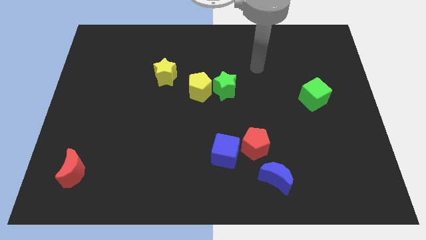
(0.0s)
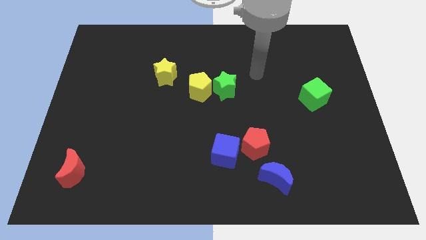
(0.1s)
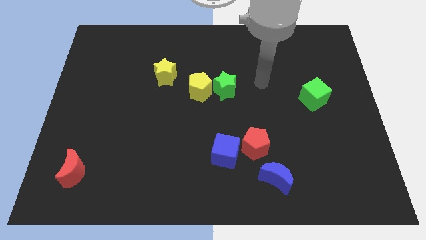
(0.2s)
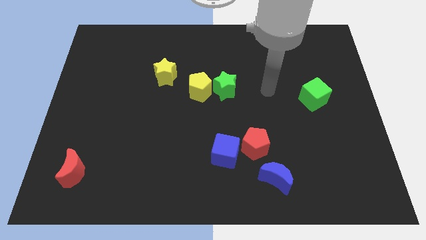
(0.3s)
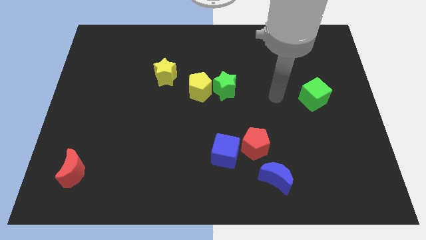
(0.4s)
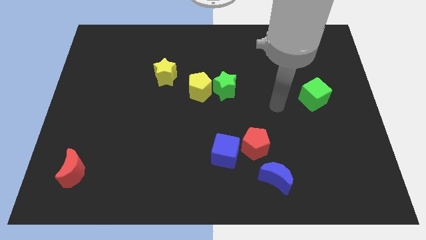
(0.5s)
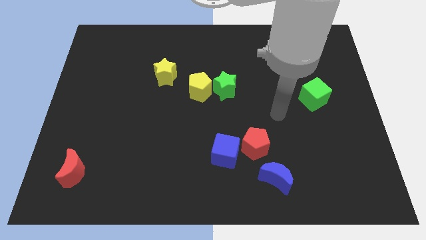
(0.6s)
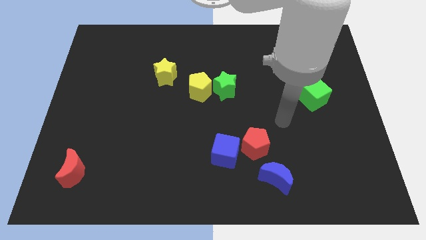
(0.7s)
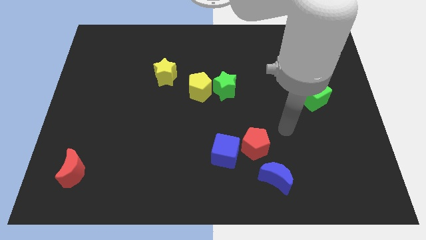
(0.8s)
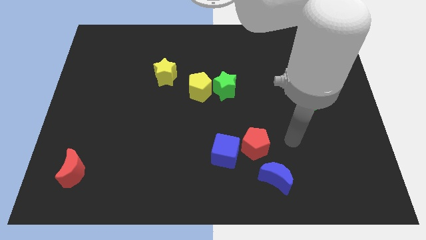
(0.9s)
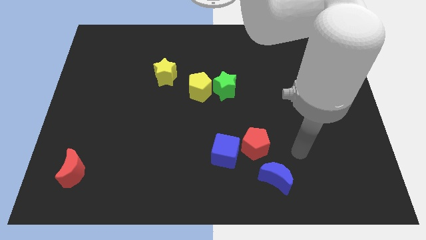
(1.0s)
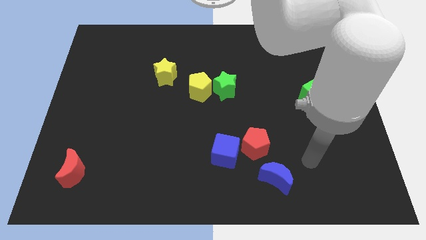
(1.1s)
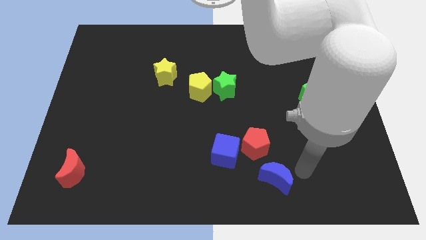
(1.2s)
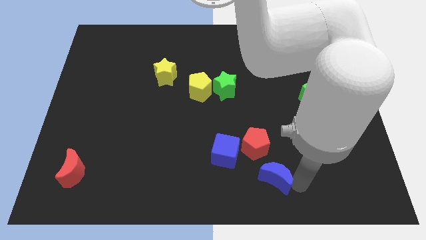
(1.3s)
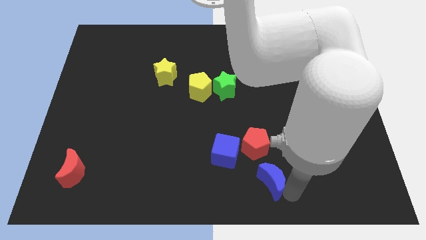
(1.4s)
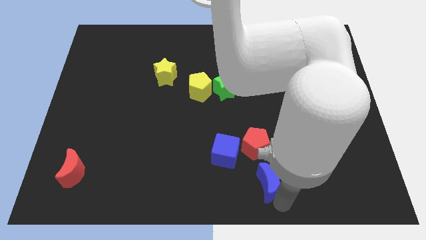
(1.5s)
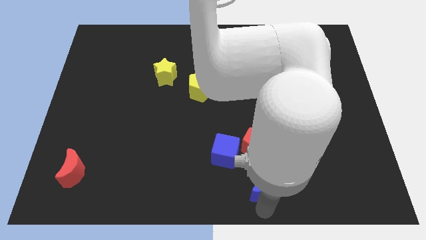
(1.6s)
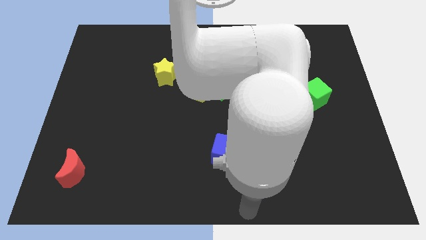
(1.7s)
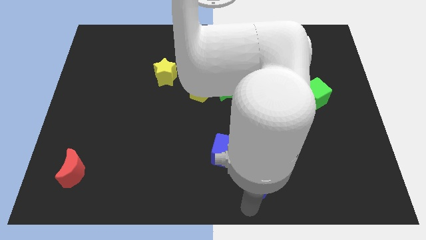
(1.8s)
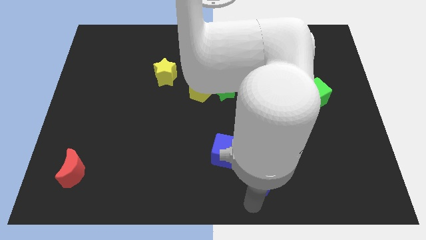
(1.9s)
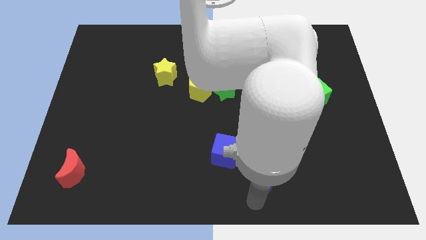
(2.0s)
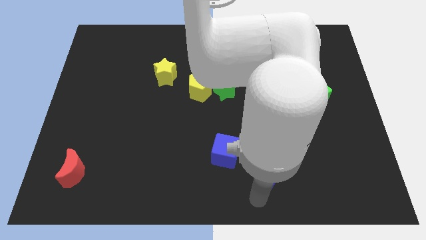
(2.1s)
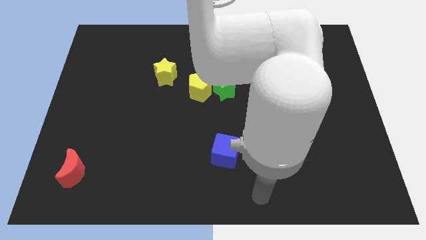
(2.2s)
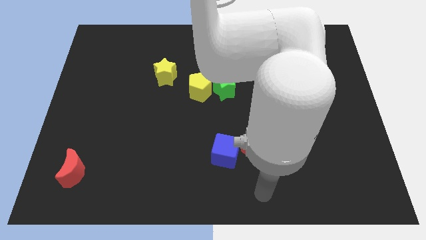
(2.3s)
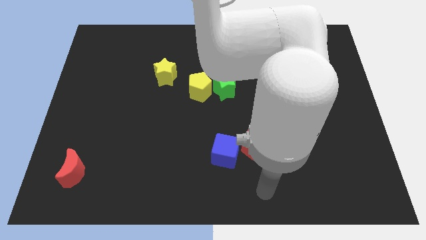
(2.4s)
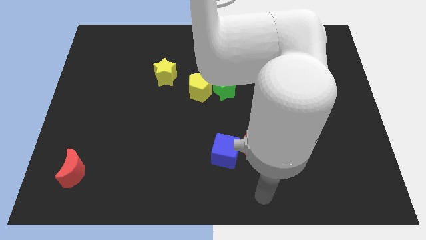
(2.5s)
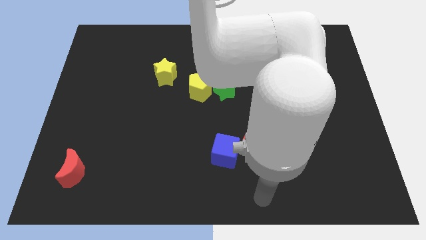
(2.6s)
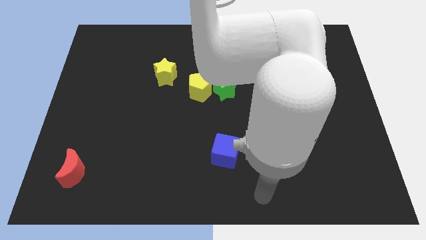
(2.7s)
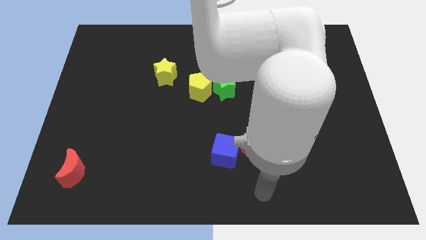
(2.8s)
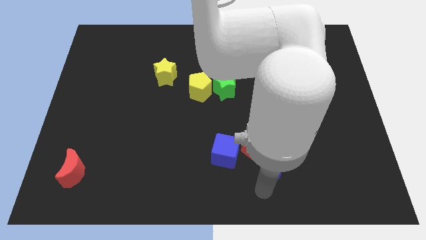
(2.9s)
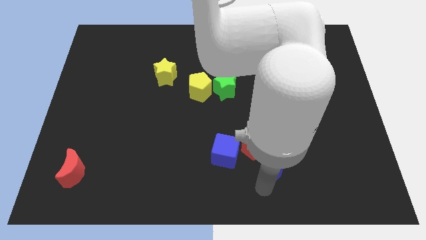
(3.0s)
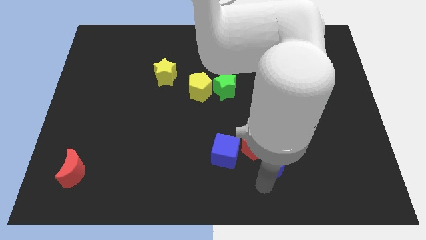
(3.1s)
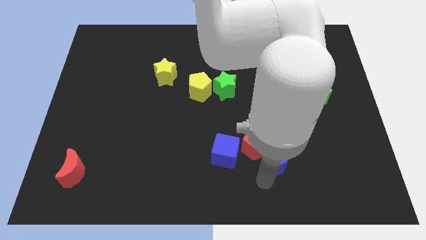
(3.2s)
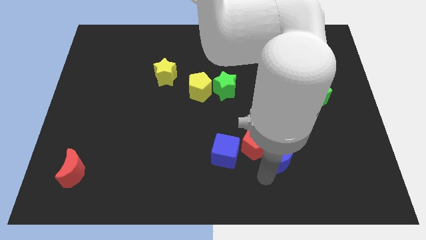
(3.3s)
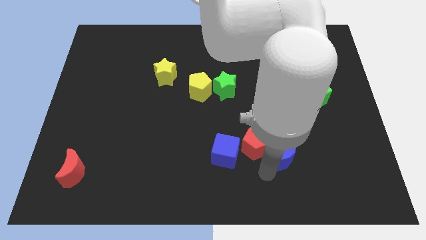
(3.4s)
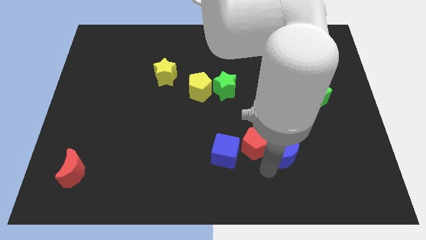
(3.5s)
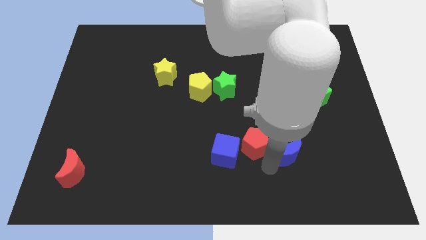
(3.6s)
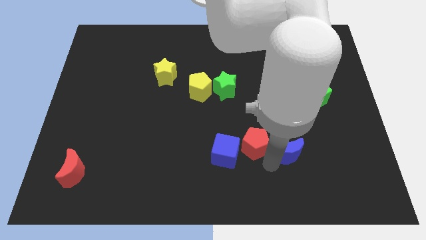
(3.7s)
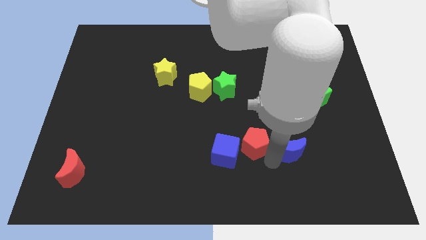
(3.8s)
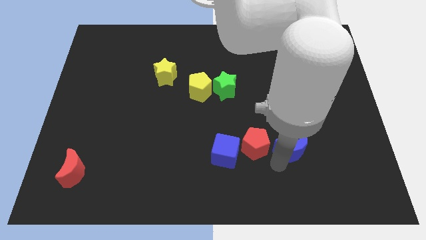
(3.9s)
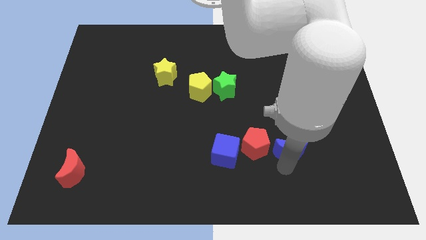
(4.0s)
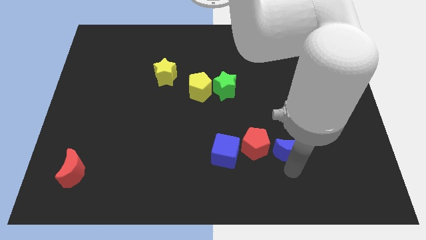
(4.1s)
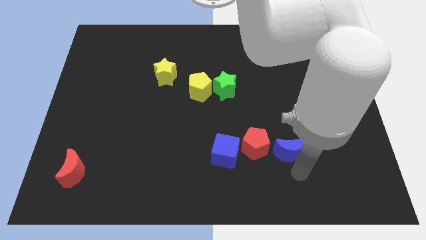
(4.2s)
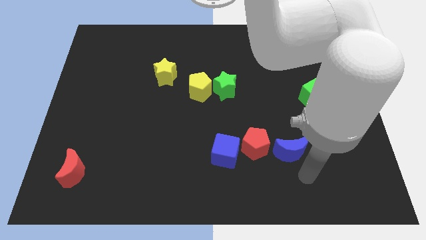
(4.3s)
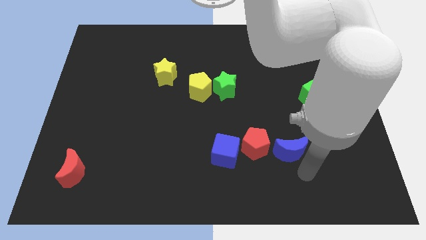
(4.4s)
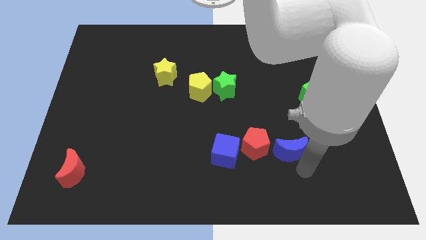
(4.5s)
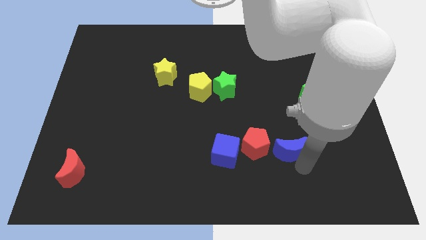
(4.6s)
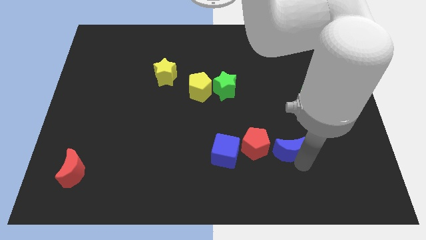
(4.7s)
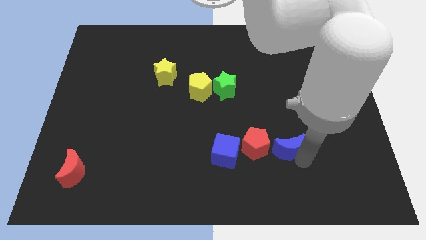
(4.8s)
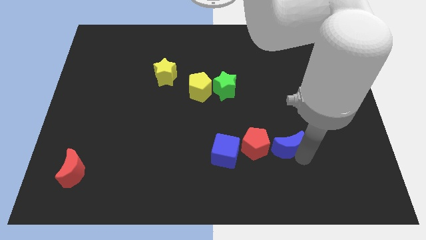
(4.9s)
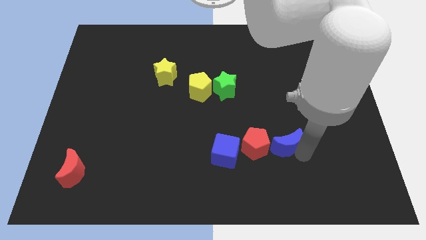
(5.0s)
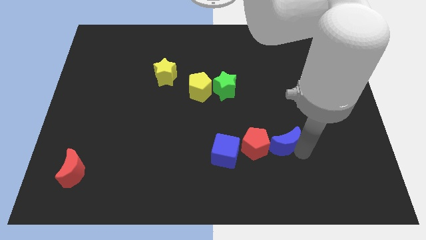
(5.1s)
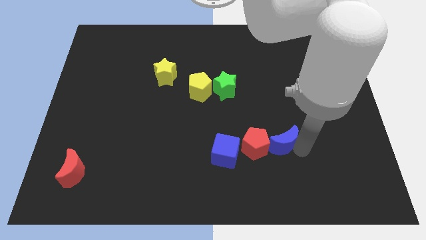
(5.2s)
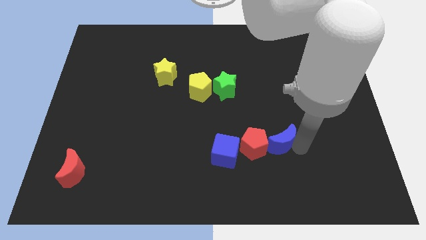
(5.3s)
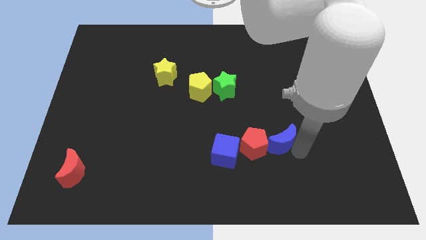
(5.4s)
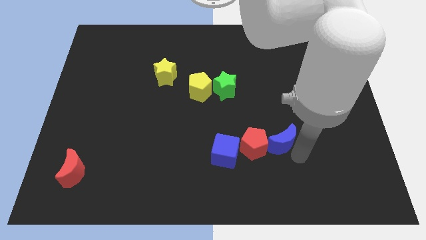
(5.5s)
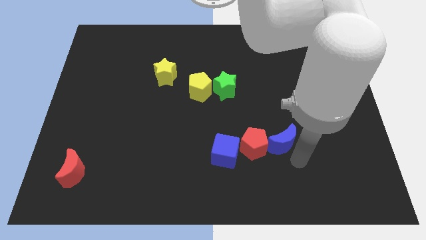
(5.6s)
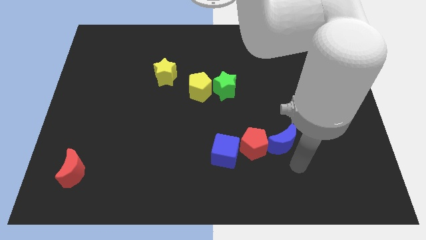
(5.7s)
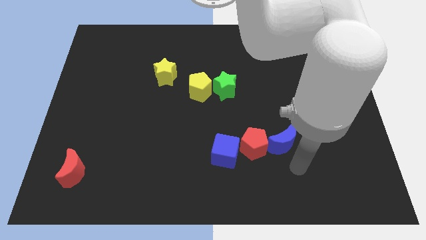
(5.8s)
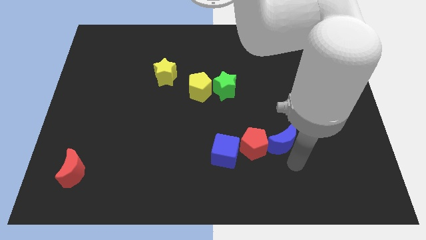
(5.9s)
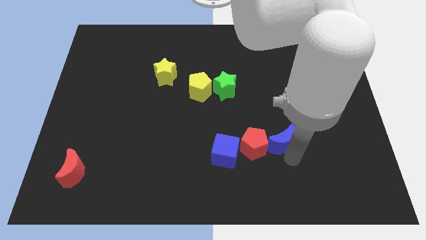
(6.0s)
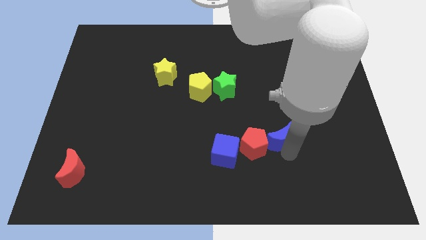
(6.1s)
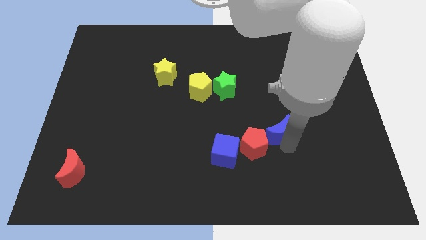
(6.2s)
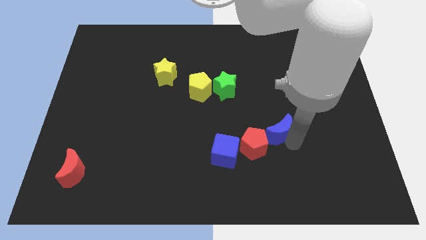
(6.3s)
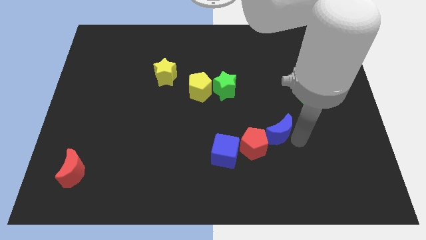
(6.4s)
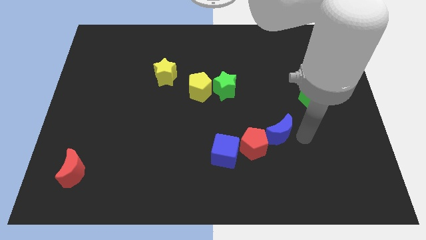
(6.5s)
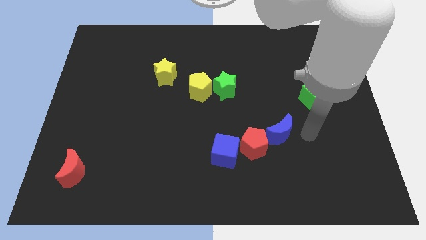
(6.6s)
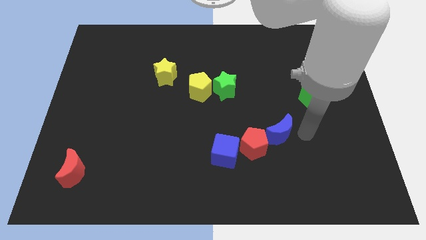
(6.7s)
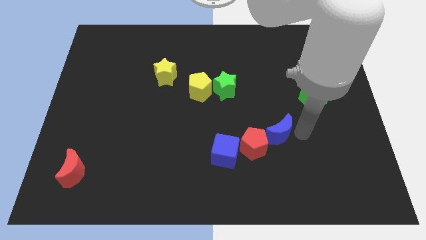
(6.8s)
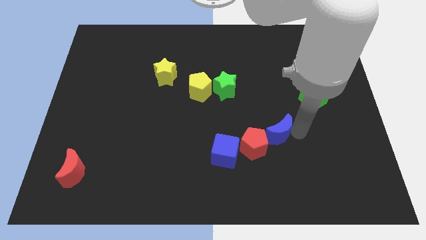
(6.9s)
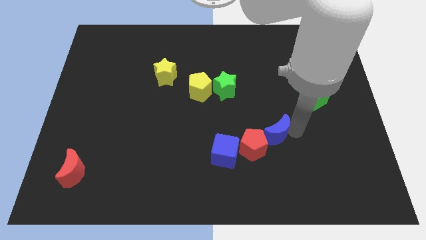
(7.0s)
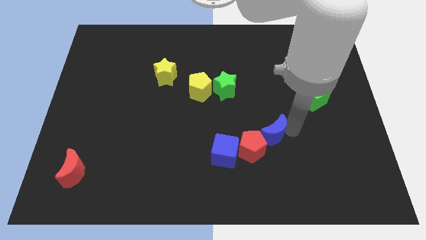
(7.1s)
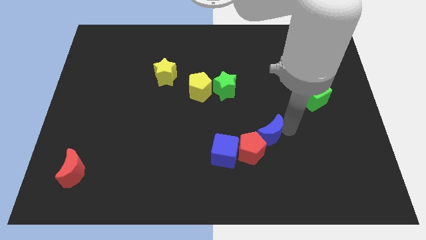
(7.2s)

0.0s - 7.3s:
move the blue moon diagonally up and to the right of the blue cube
